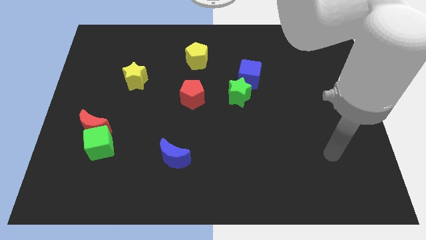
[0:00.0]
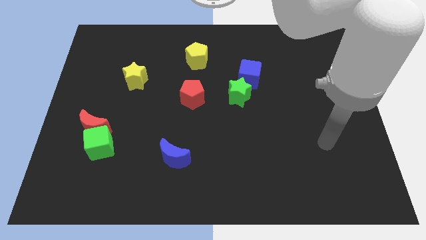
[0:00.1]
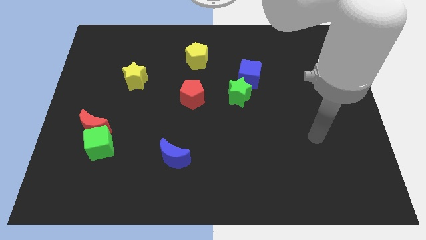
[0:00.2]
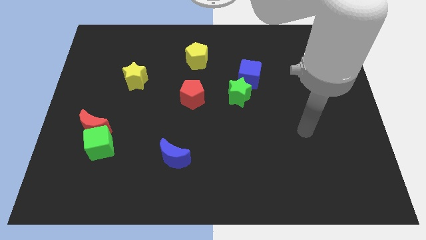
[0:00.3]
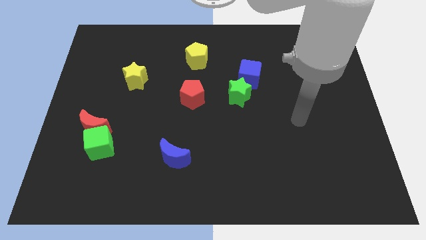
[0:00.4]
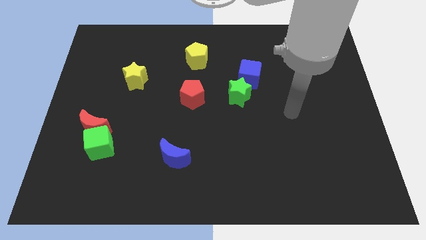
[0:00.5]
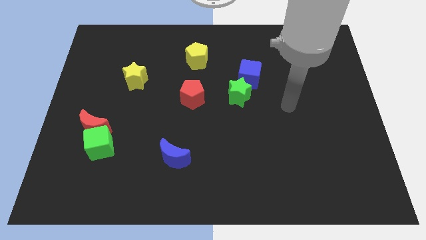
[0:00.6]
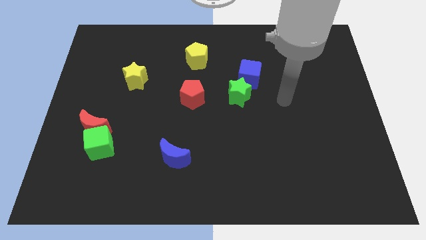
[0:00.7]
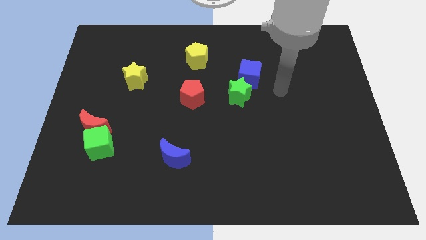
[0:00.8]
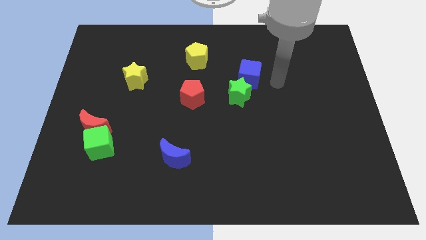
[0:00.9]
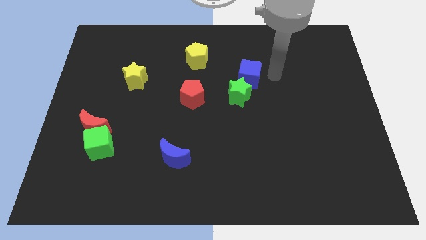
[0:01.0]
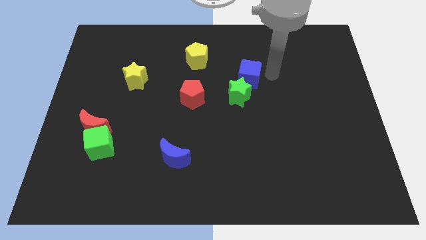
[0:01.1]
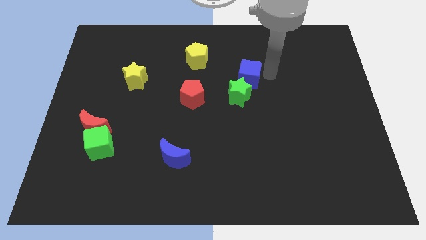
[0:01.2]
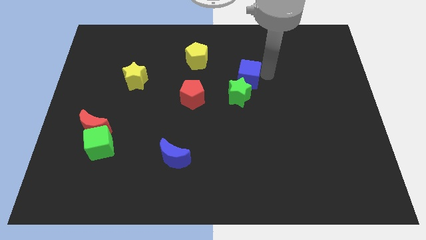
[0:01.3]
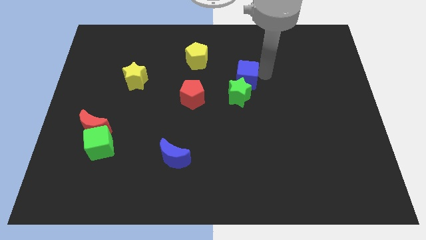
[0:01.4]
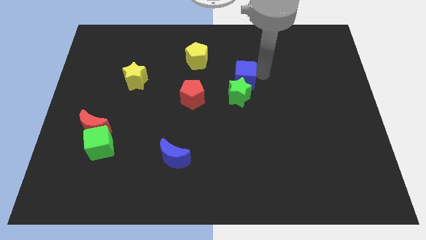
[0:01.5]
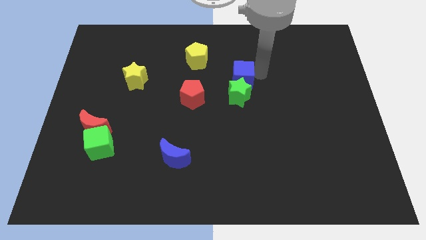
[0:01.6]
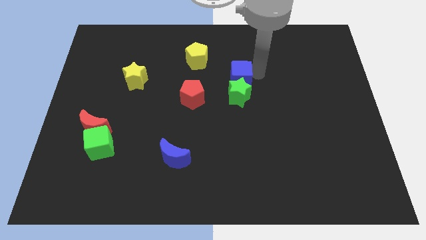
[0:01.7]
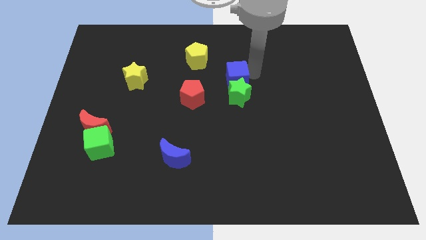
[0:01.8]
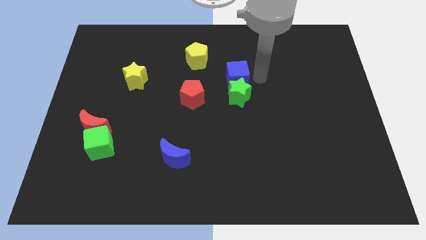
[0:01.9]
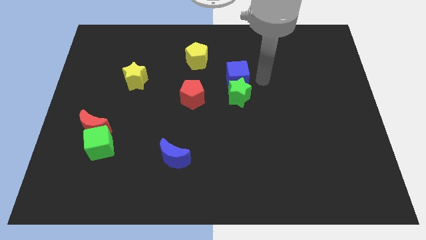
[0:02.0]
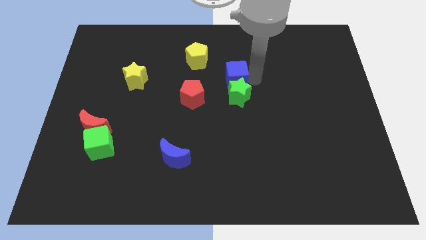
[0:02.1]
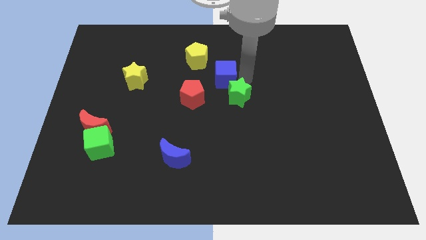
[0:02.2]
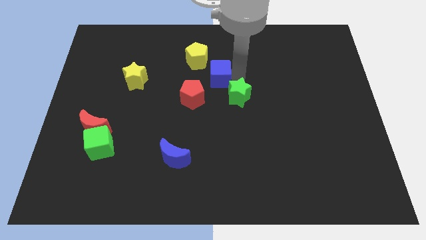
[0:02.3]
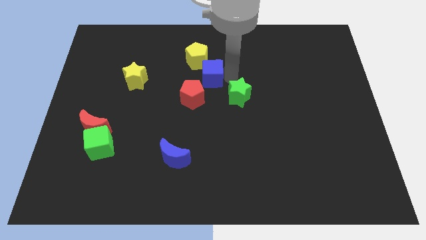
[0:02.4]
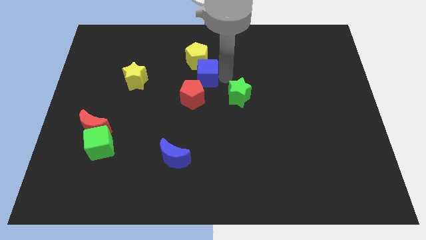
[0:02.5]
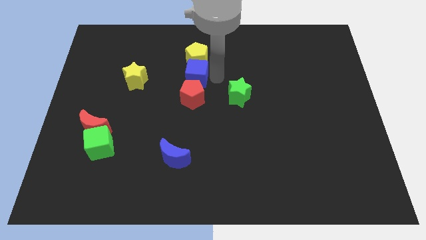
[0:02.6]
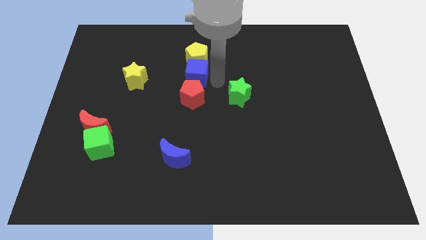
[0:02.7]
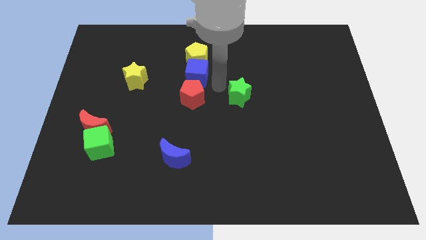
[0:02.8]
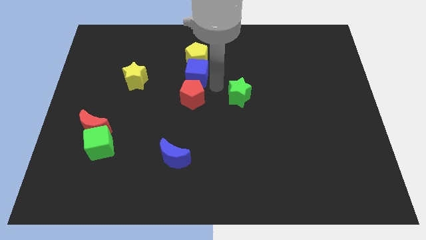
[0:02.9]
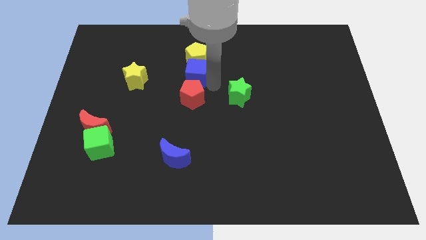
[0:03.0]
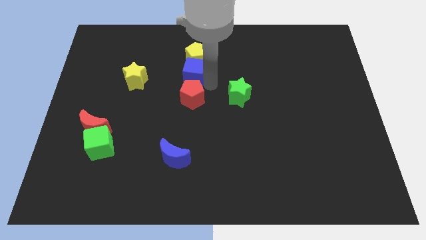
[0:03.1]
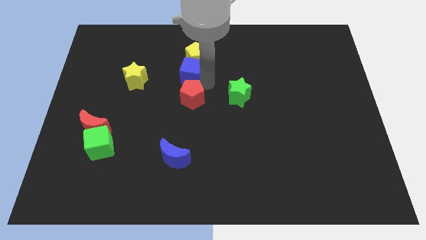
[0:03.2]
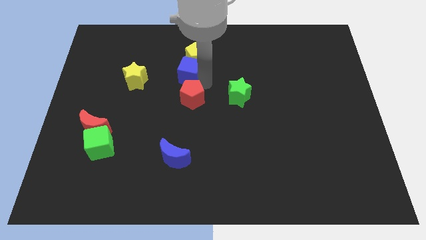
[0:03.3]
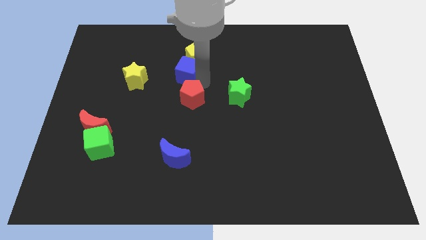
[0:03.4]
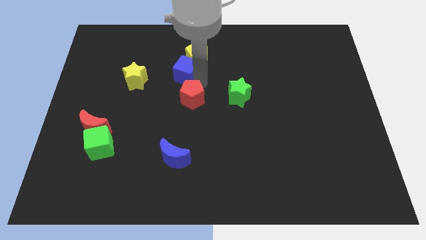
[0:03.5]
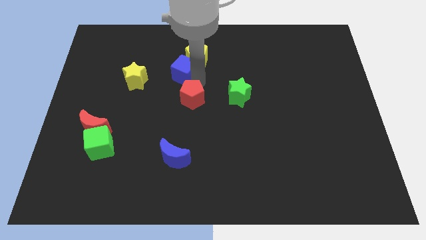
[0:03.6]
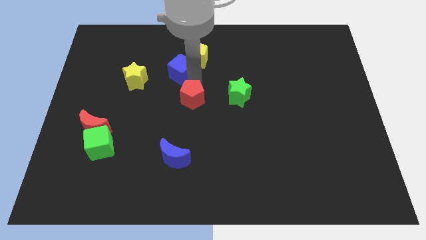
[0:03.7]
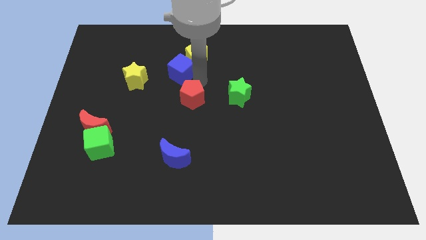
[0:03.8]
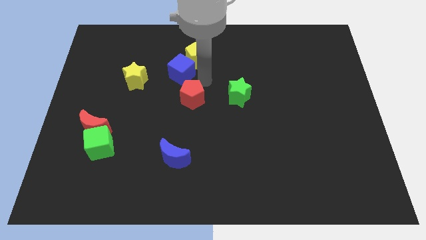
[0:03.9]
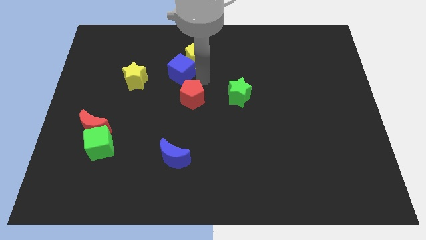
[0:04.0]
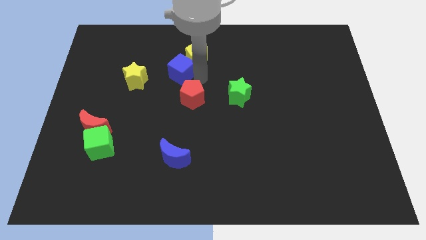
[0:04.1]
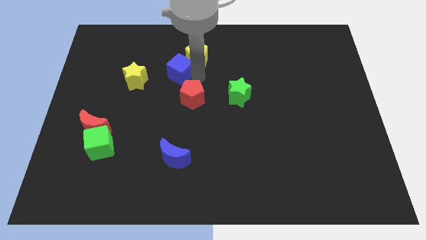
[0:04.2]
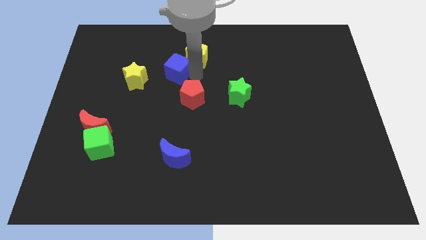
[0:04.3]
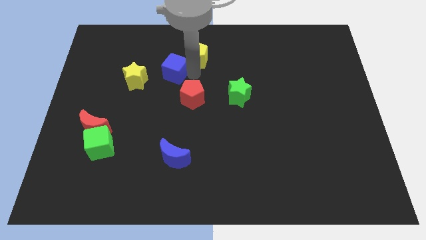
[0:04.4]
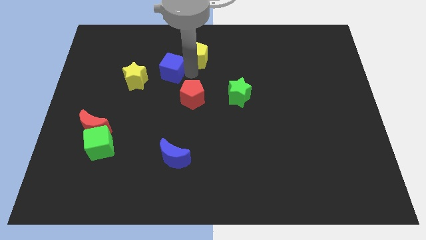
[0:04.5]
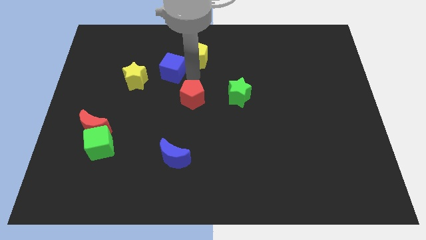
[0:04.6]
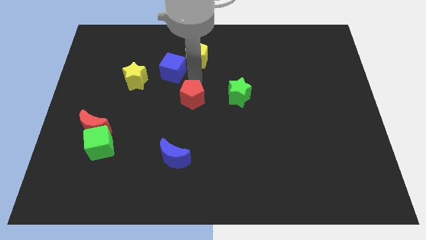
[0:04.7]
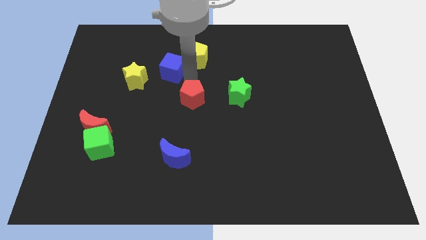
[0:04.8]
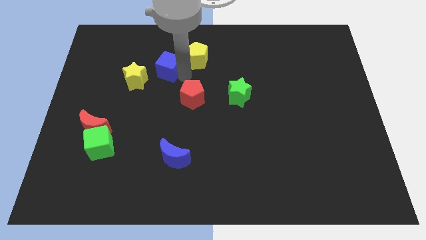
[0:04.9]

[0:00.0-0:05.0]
push the blue cube left

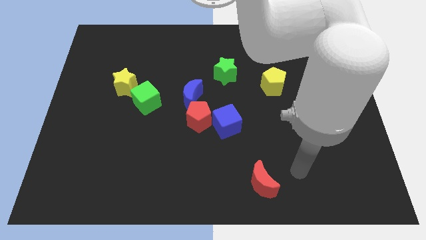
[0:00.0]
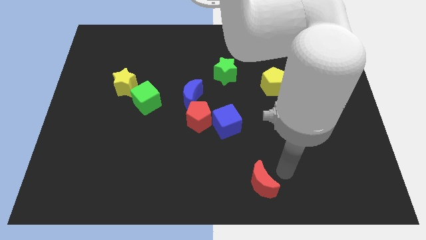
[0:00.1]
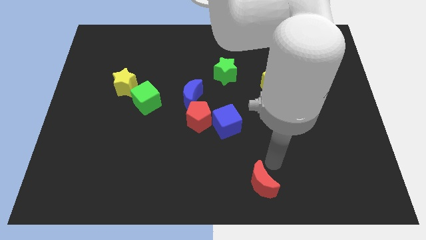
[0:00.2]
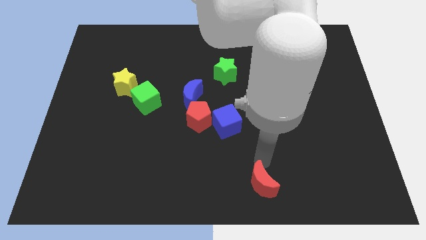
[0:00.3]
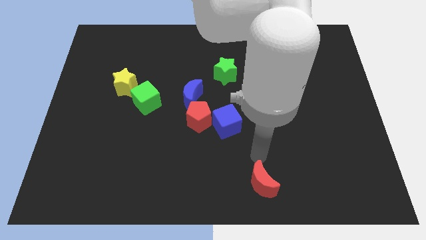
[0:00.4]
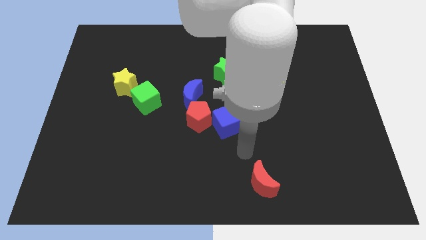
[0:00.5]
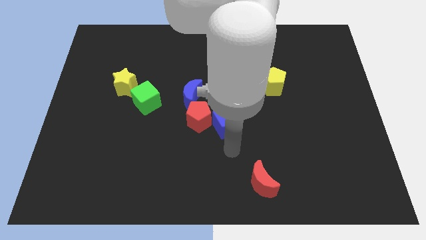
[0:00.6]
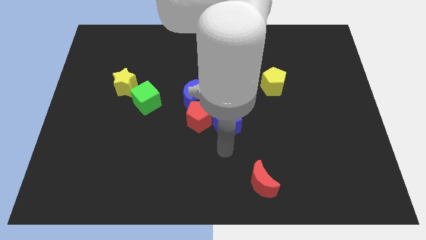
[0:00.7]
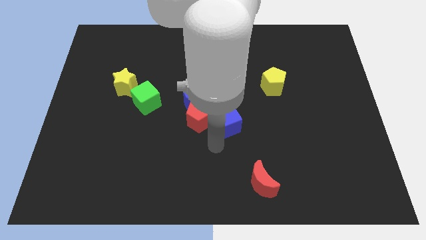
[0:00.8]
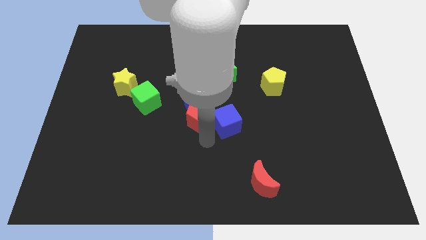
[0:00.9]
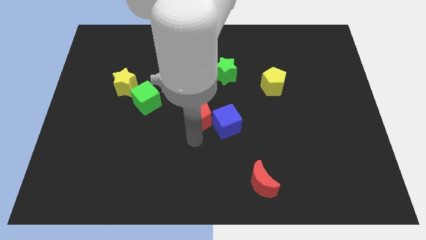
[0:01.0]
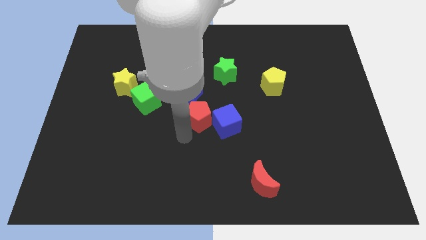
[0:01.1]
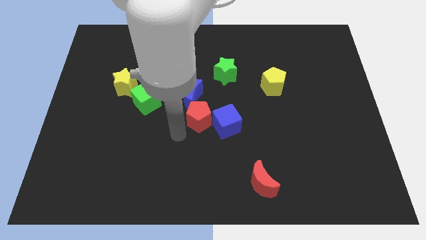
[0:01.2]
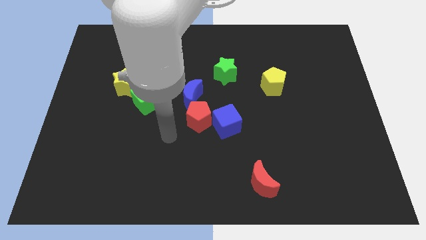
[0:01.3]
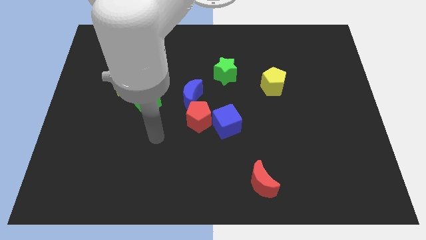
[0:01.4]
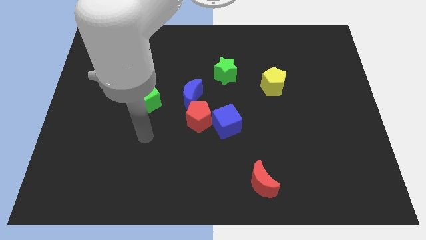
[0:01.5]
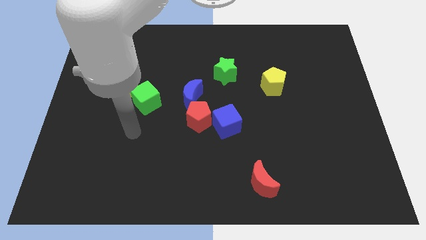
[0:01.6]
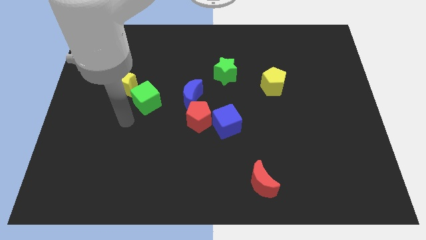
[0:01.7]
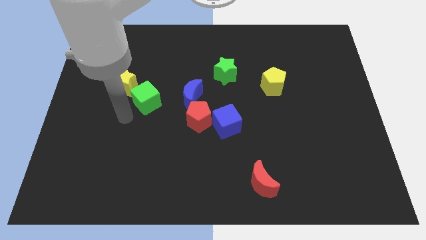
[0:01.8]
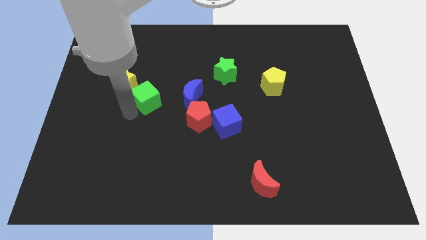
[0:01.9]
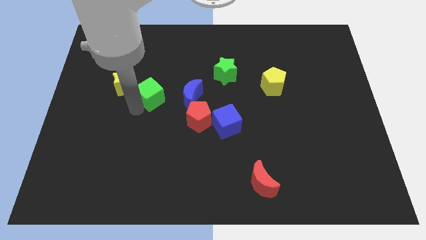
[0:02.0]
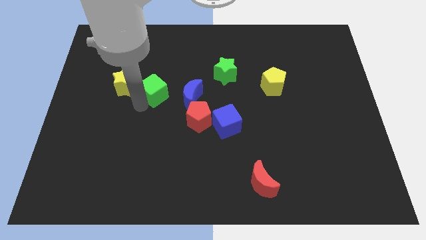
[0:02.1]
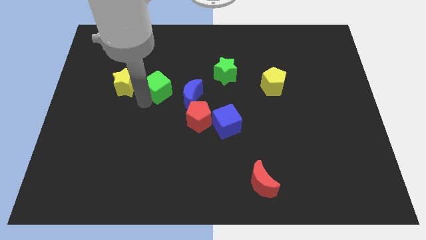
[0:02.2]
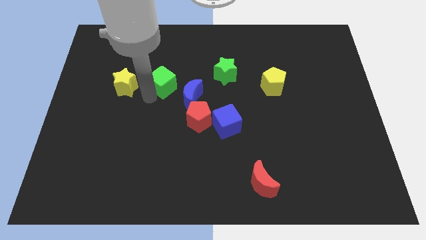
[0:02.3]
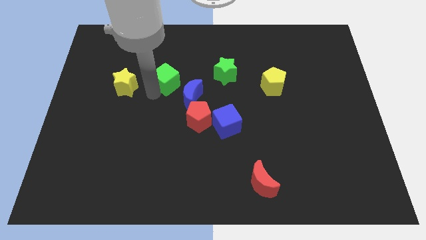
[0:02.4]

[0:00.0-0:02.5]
push the green cube up and right a bit

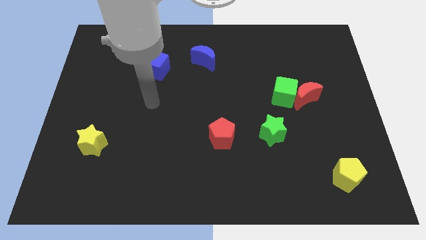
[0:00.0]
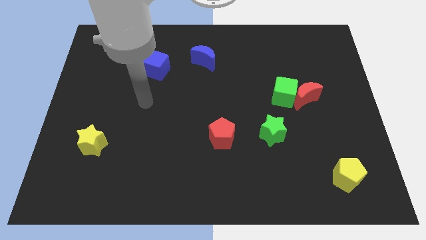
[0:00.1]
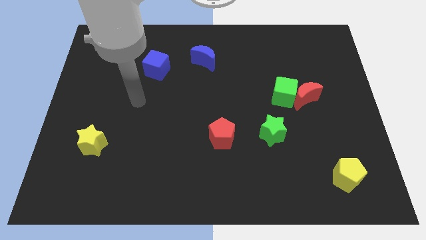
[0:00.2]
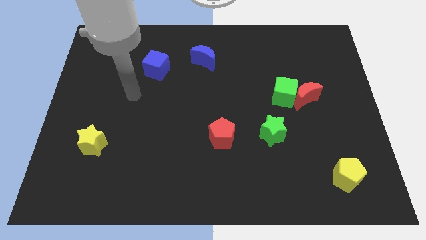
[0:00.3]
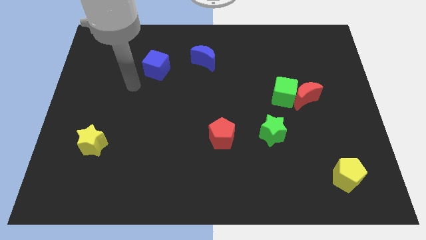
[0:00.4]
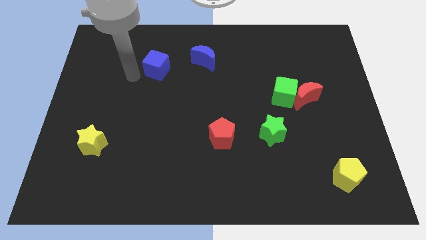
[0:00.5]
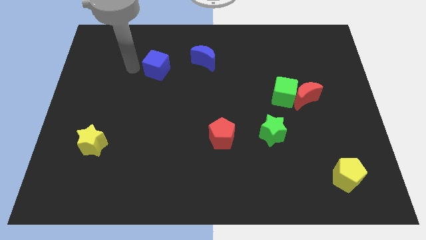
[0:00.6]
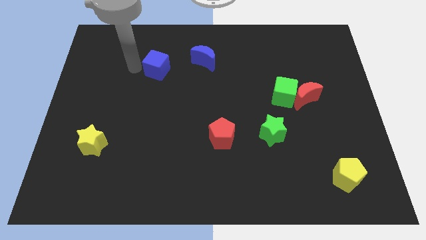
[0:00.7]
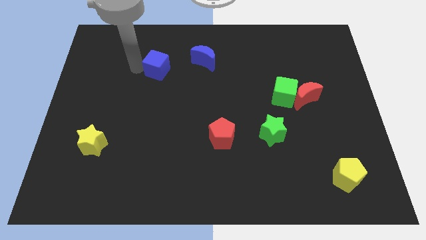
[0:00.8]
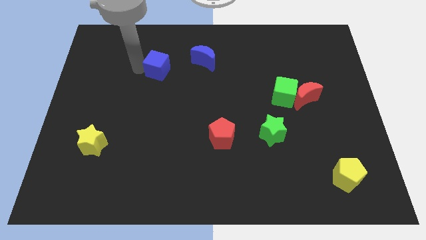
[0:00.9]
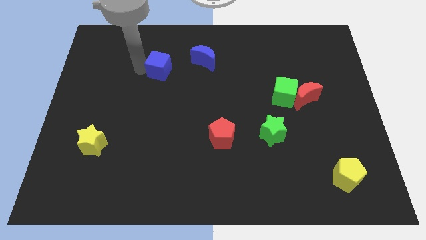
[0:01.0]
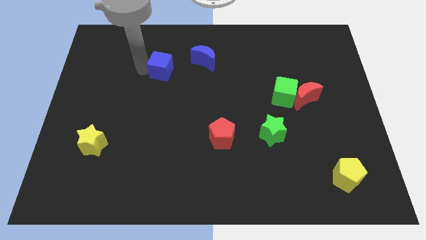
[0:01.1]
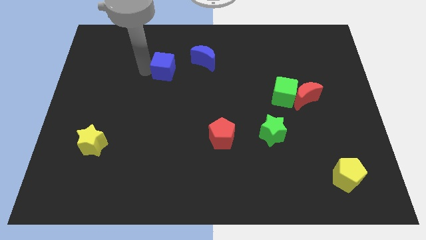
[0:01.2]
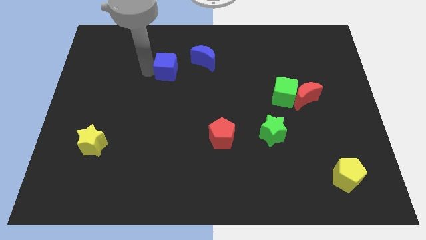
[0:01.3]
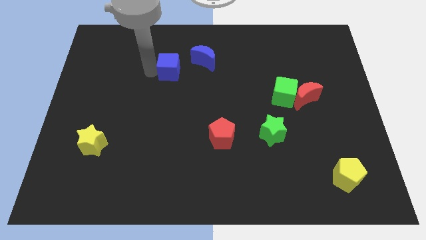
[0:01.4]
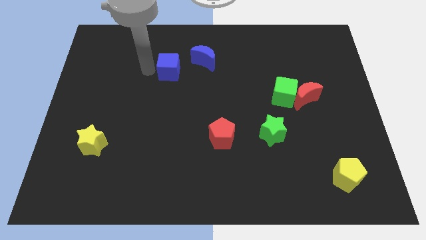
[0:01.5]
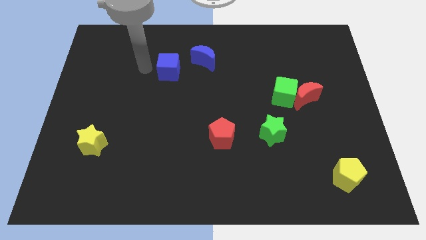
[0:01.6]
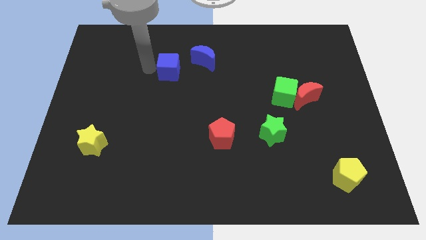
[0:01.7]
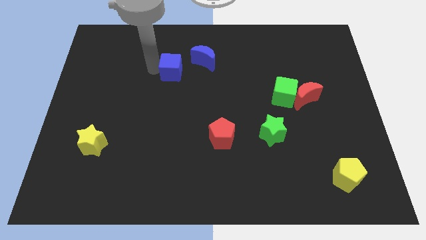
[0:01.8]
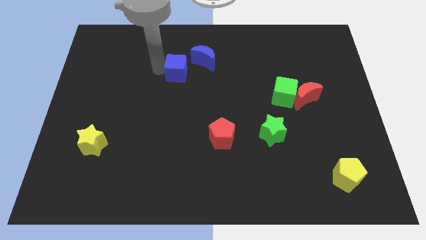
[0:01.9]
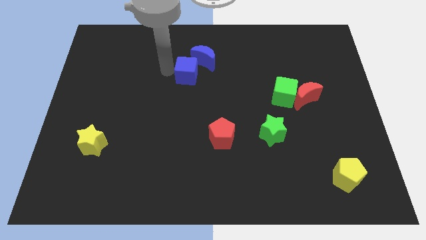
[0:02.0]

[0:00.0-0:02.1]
push the blue cube slightly right
